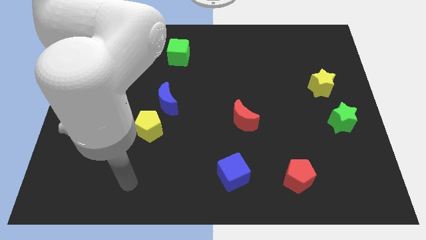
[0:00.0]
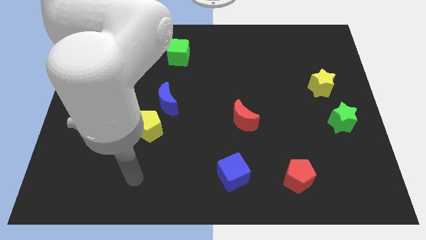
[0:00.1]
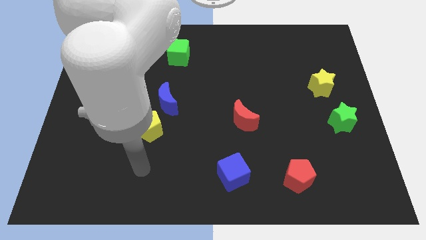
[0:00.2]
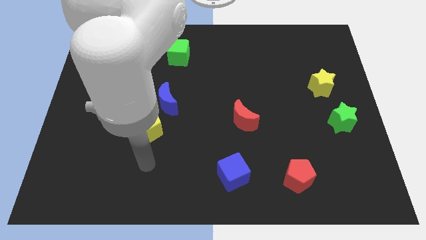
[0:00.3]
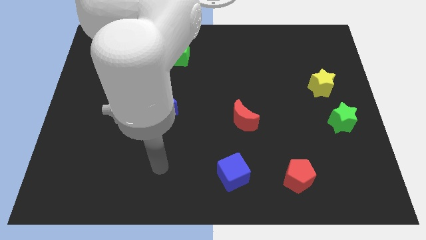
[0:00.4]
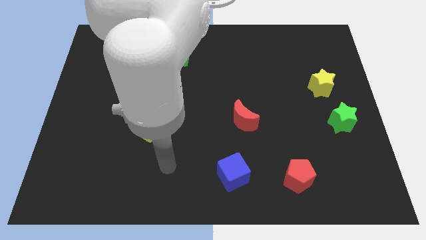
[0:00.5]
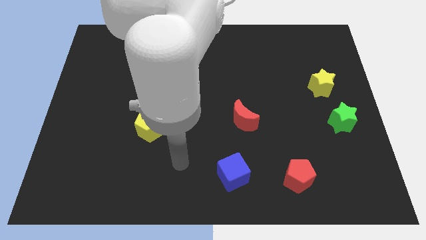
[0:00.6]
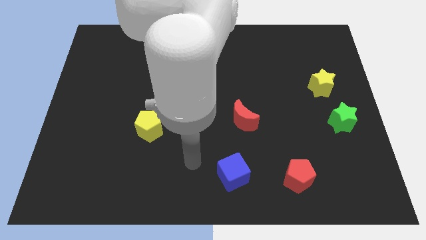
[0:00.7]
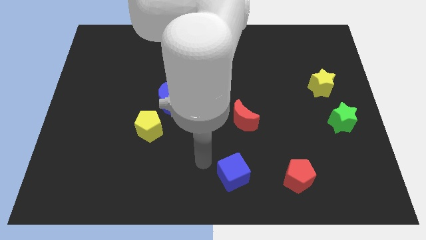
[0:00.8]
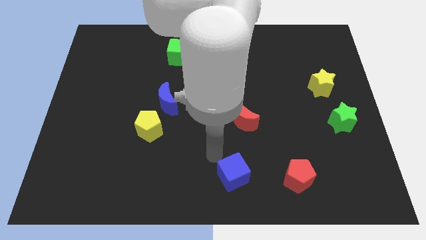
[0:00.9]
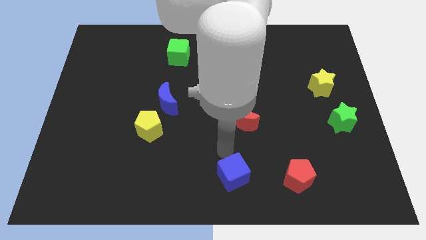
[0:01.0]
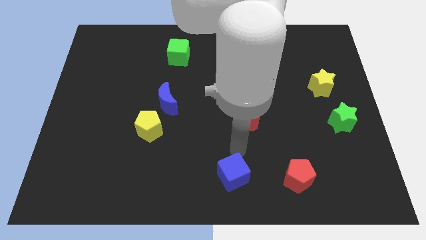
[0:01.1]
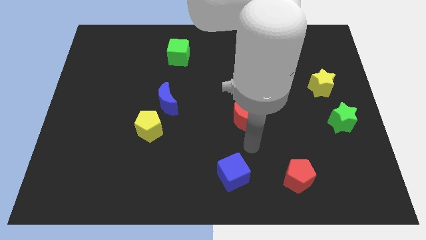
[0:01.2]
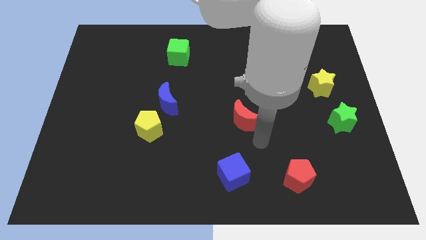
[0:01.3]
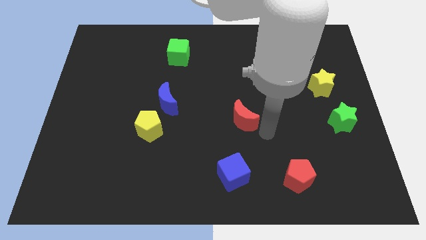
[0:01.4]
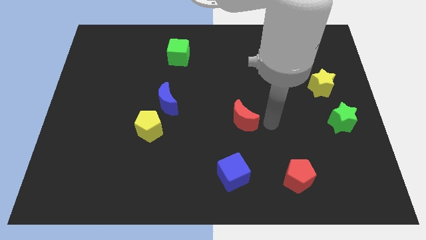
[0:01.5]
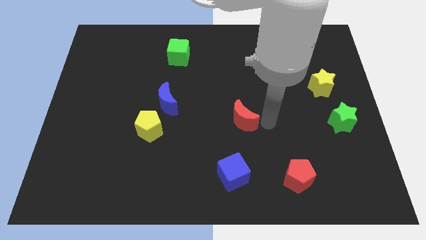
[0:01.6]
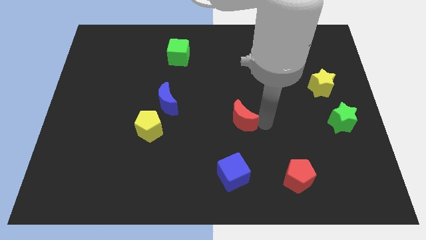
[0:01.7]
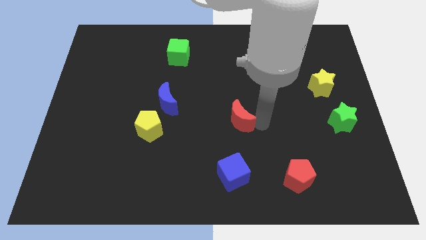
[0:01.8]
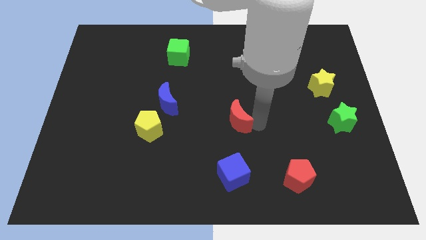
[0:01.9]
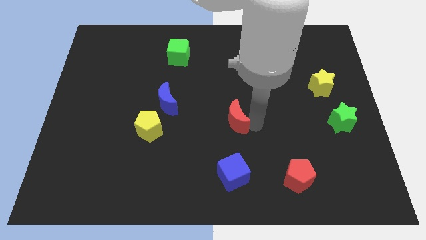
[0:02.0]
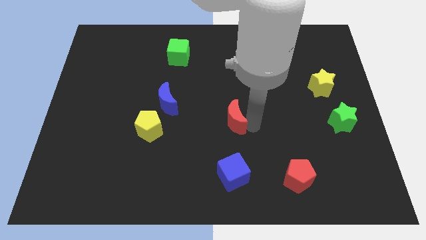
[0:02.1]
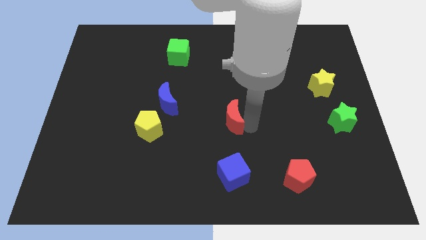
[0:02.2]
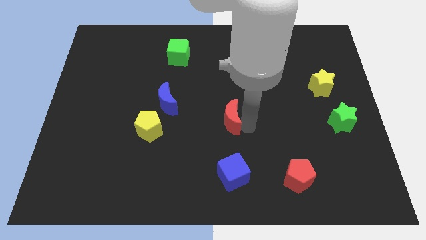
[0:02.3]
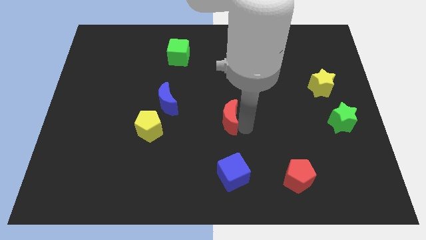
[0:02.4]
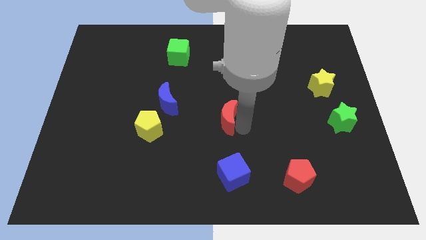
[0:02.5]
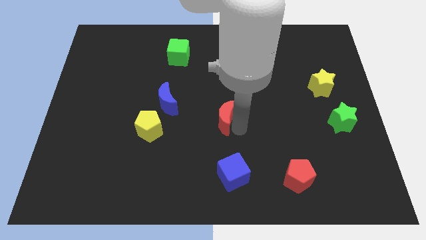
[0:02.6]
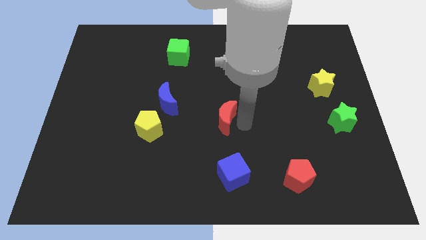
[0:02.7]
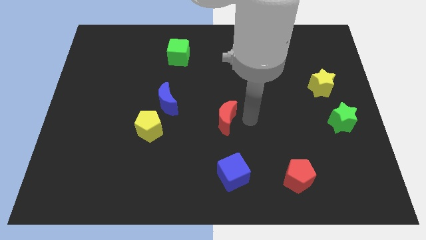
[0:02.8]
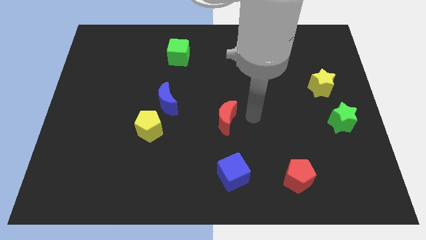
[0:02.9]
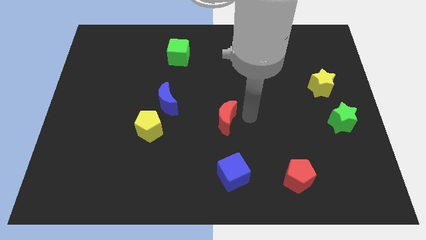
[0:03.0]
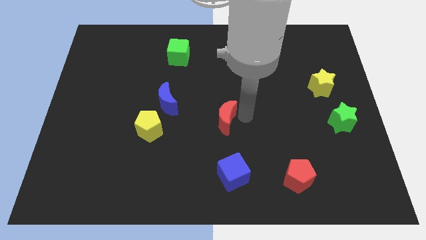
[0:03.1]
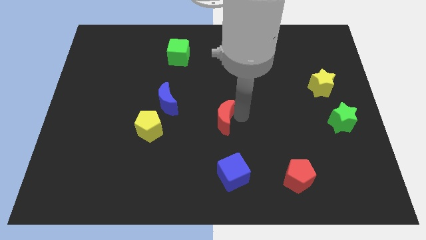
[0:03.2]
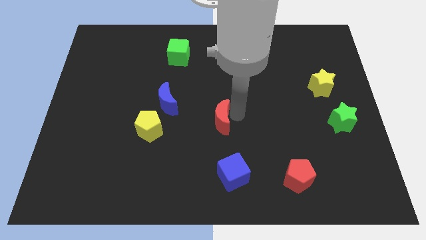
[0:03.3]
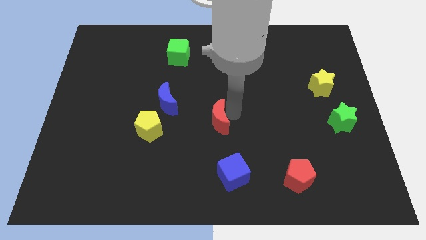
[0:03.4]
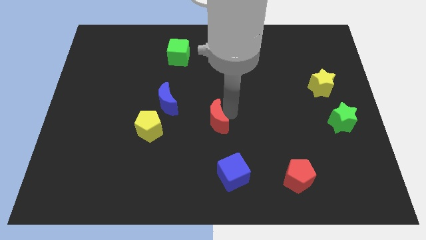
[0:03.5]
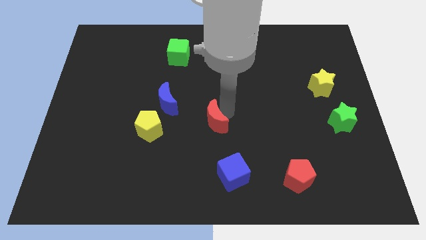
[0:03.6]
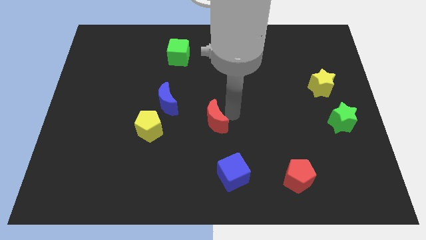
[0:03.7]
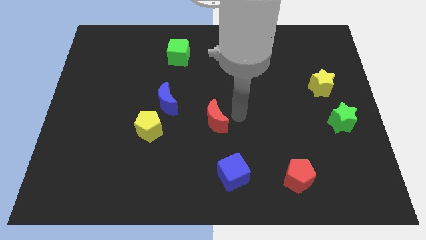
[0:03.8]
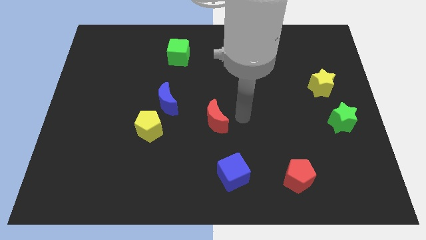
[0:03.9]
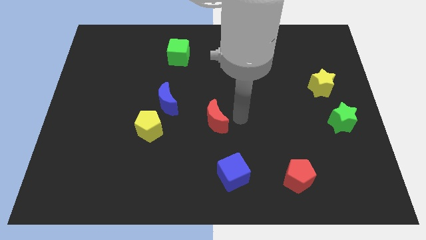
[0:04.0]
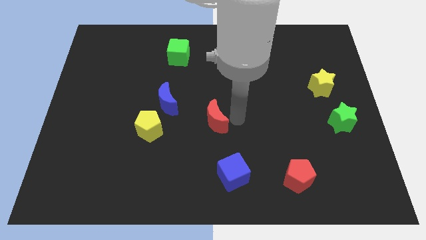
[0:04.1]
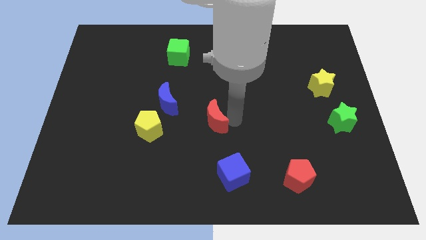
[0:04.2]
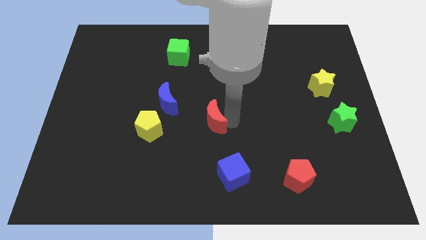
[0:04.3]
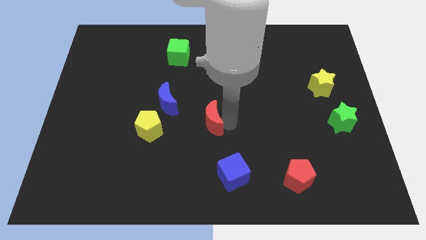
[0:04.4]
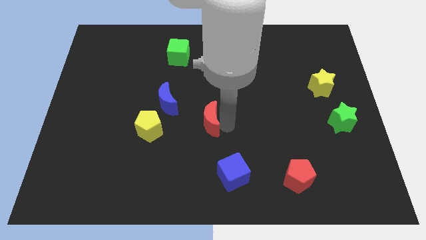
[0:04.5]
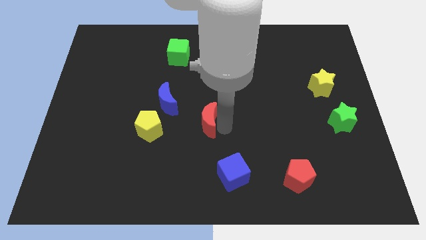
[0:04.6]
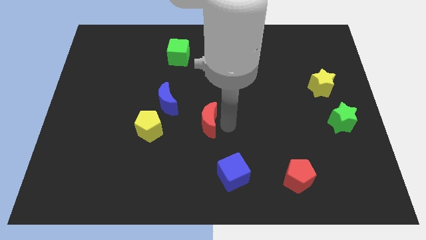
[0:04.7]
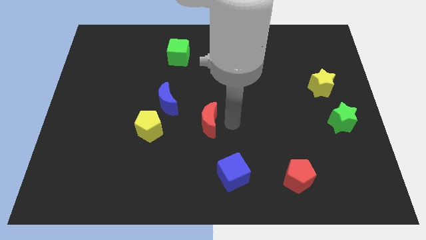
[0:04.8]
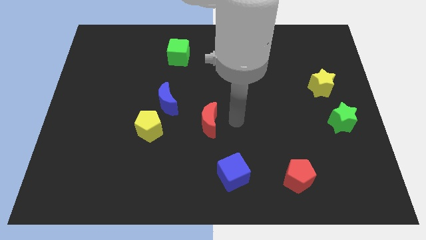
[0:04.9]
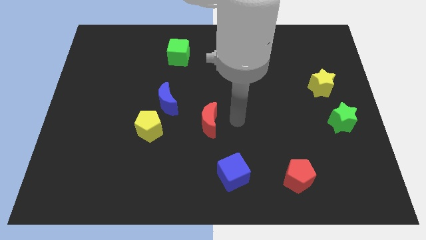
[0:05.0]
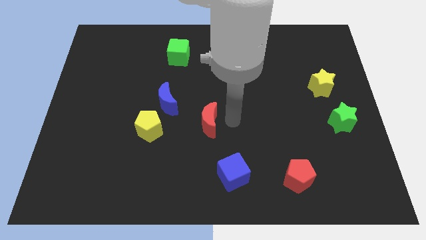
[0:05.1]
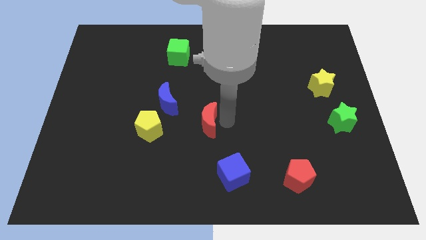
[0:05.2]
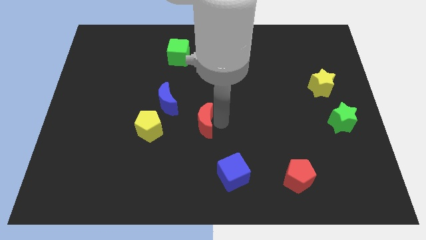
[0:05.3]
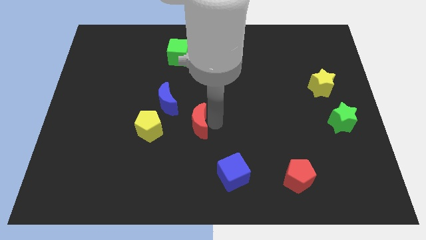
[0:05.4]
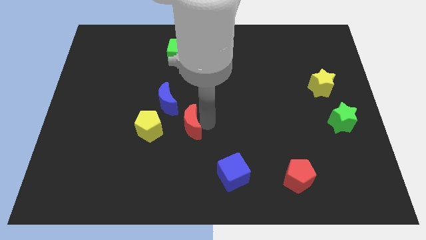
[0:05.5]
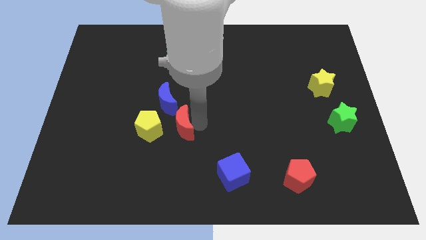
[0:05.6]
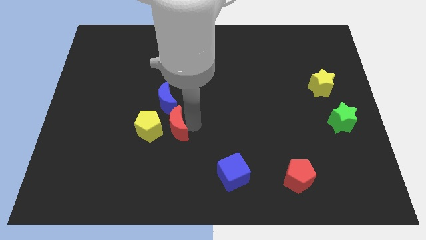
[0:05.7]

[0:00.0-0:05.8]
move the red moon to the yellow pentagon

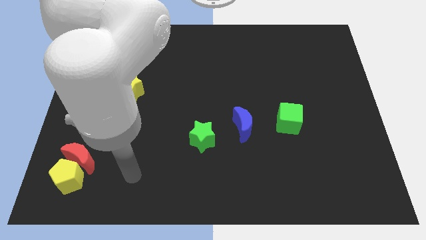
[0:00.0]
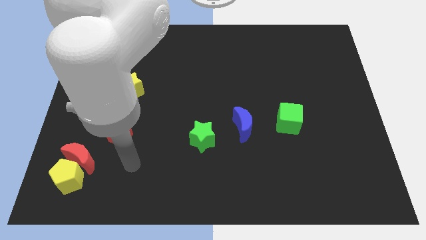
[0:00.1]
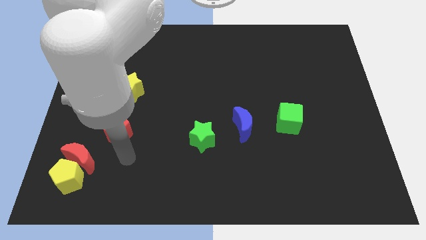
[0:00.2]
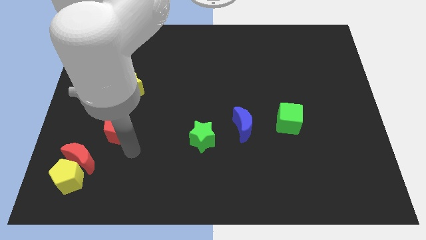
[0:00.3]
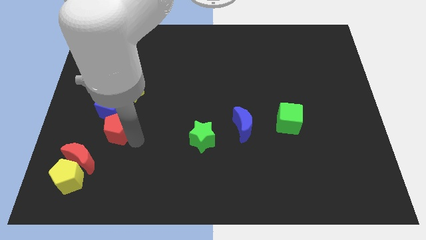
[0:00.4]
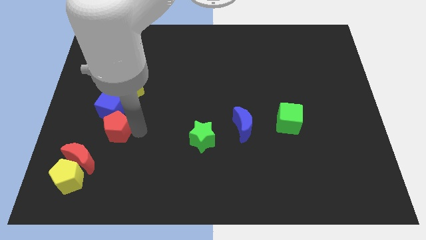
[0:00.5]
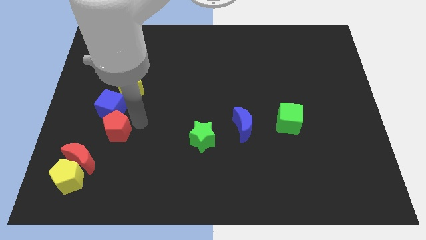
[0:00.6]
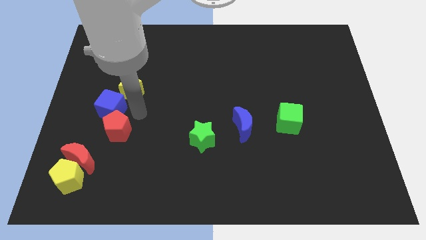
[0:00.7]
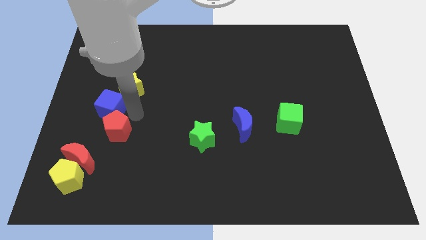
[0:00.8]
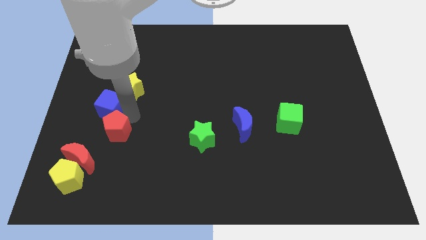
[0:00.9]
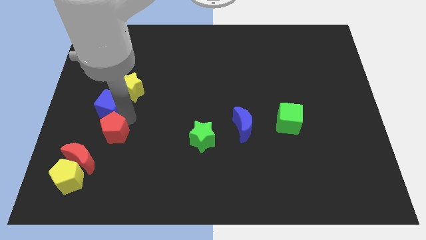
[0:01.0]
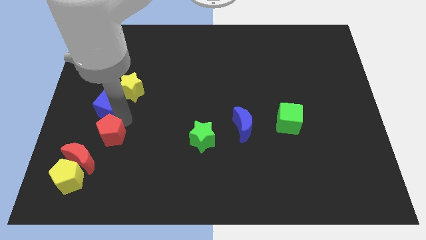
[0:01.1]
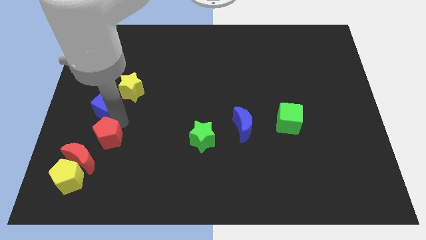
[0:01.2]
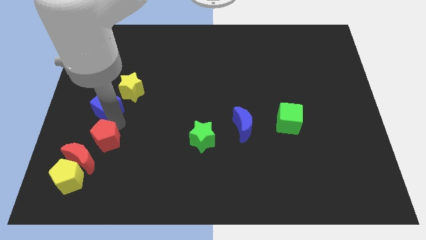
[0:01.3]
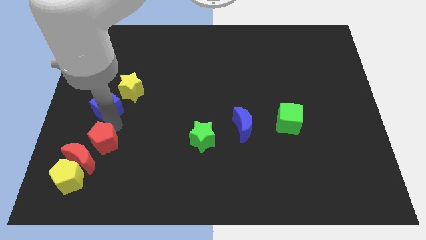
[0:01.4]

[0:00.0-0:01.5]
slide the red pentagon towards the red moon

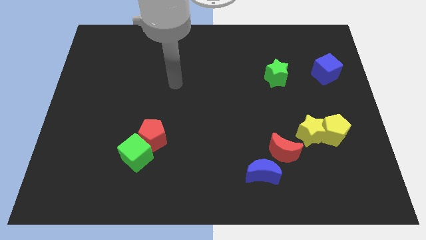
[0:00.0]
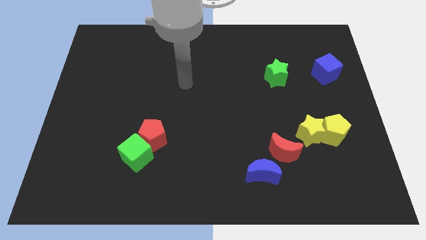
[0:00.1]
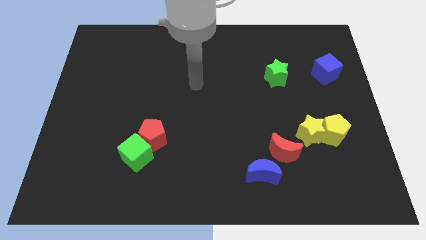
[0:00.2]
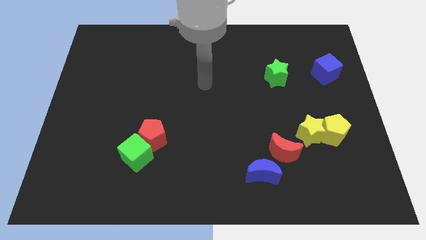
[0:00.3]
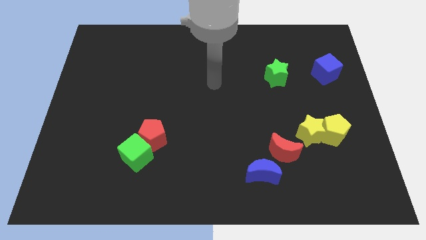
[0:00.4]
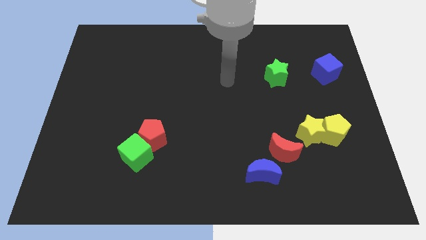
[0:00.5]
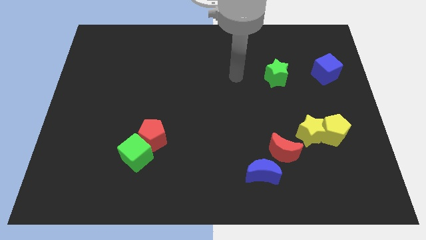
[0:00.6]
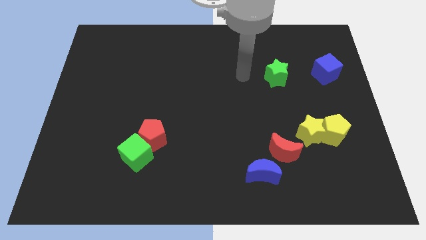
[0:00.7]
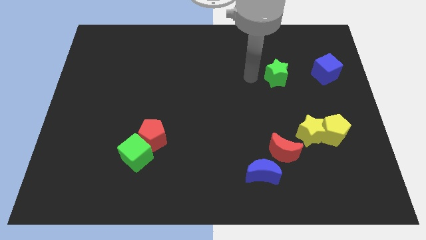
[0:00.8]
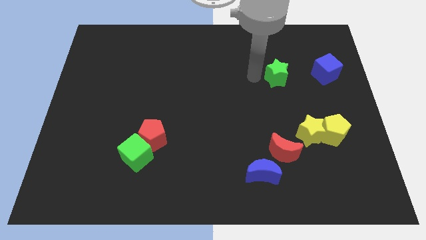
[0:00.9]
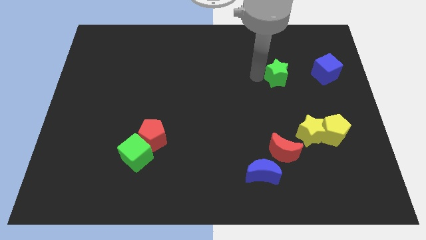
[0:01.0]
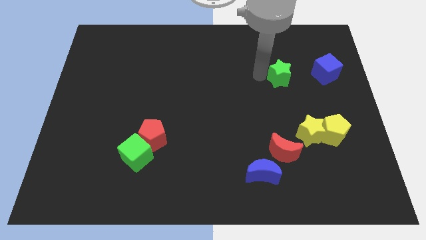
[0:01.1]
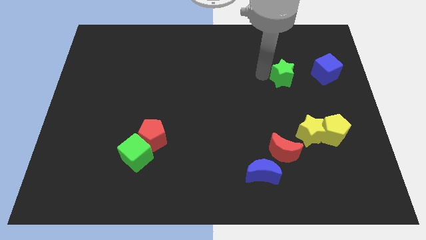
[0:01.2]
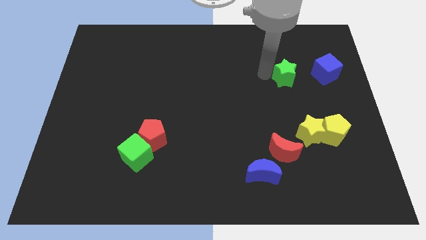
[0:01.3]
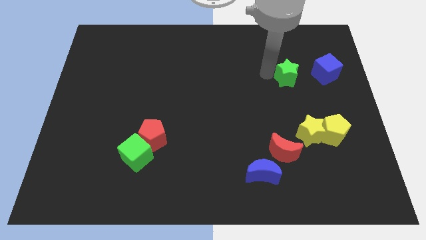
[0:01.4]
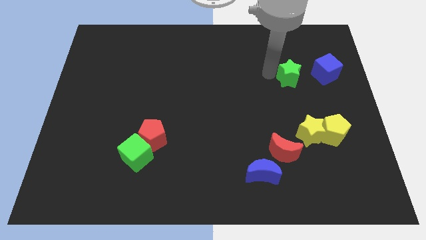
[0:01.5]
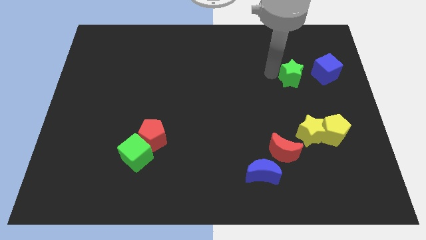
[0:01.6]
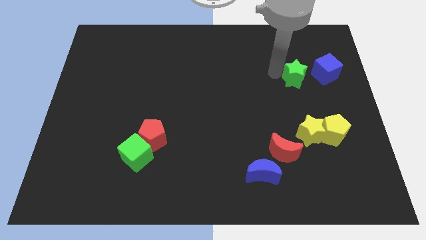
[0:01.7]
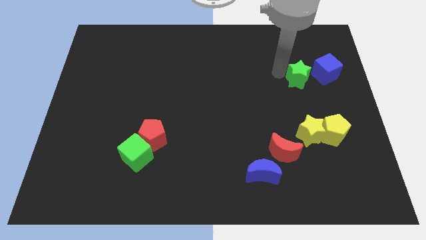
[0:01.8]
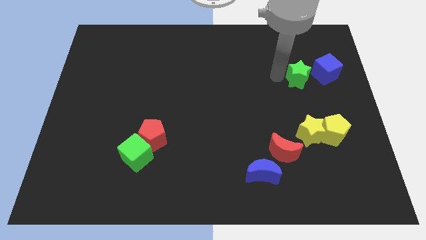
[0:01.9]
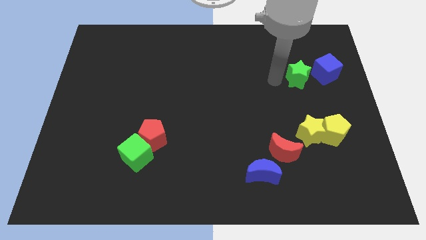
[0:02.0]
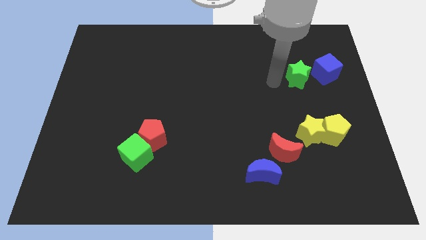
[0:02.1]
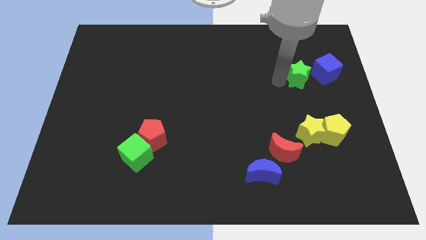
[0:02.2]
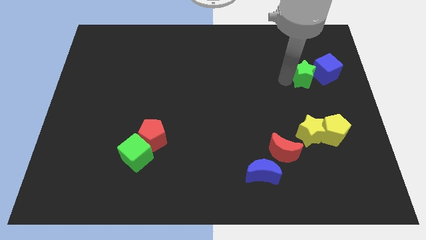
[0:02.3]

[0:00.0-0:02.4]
push the green star next to the blue cube
